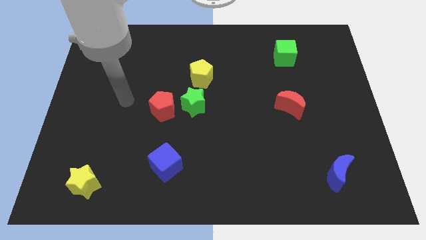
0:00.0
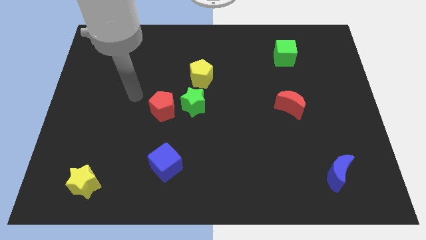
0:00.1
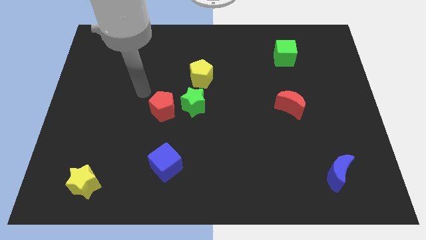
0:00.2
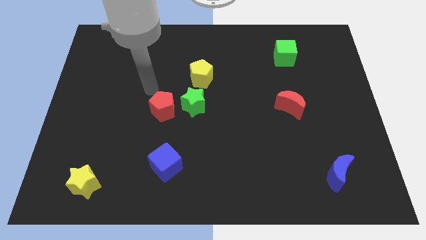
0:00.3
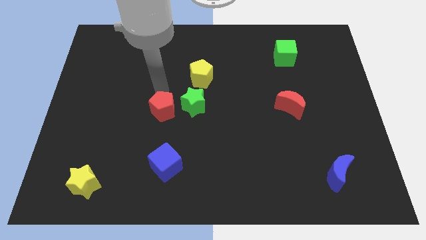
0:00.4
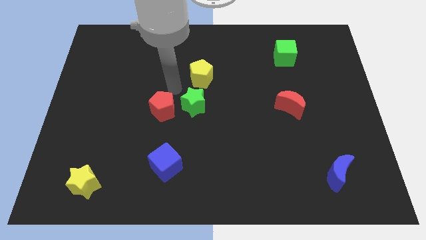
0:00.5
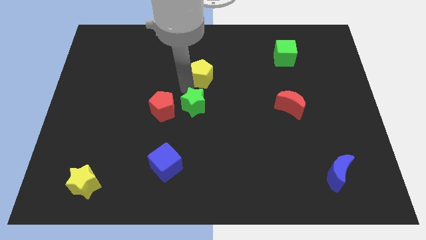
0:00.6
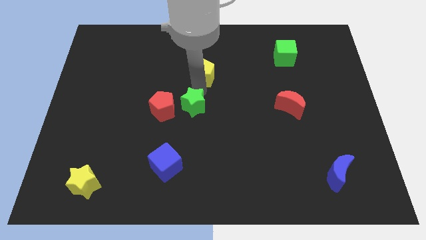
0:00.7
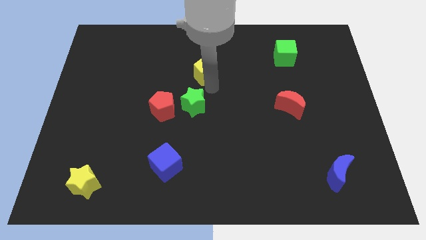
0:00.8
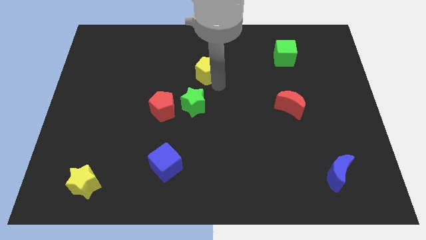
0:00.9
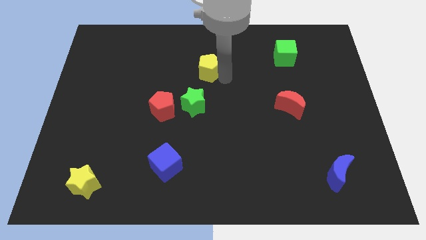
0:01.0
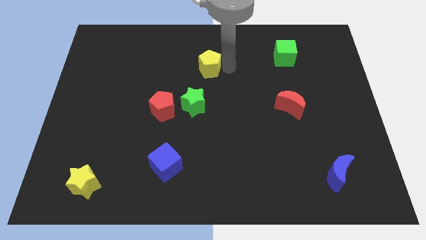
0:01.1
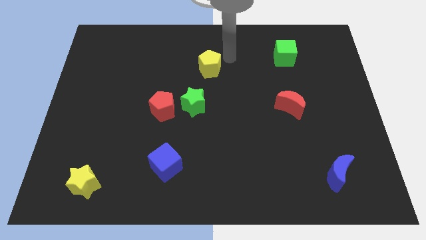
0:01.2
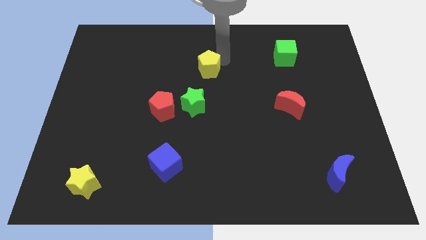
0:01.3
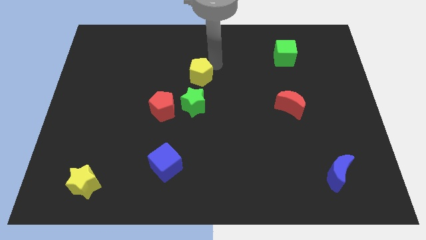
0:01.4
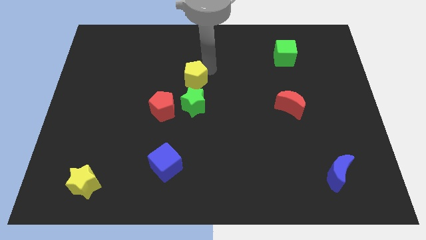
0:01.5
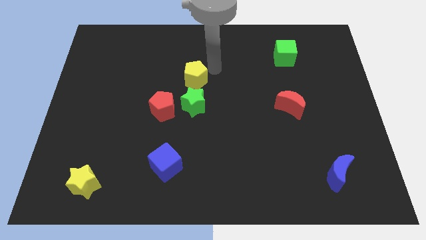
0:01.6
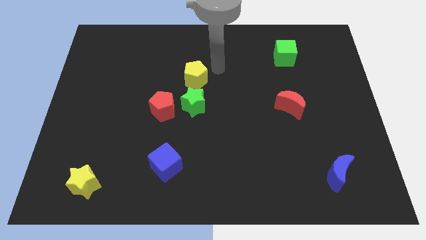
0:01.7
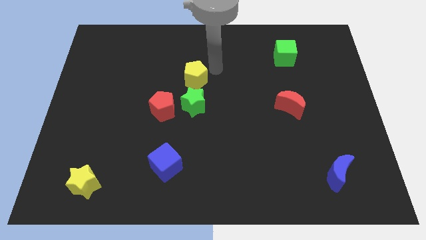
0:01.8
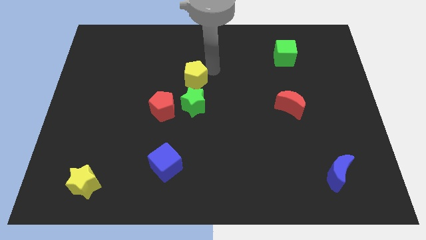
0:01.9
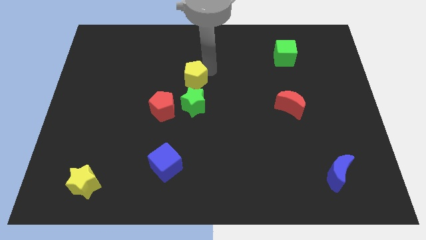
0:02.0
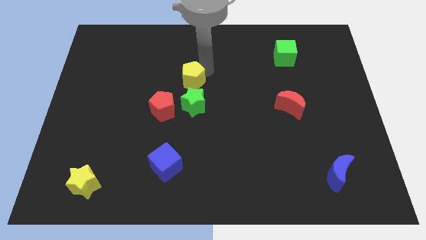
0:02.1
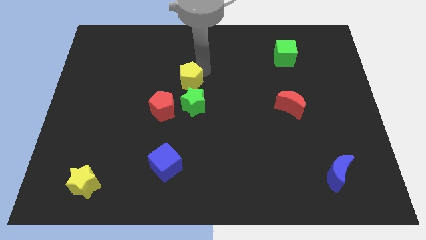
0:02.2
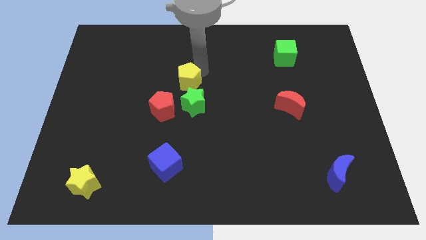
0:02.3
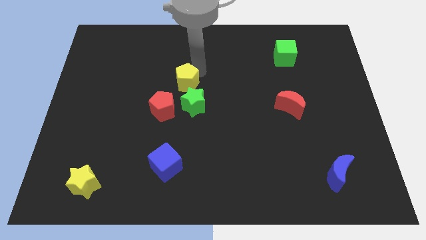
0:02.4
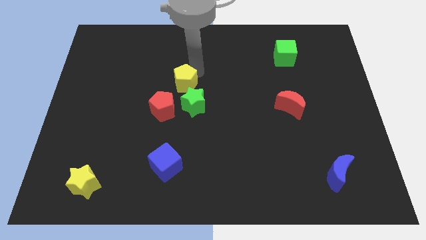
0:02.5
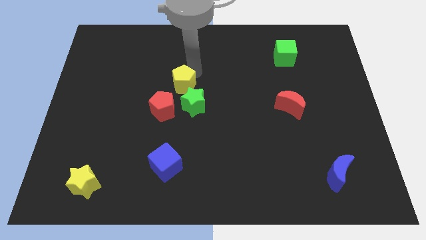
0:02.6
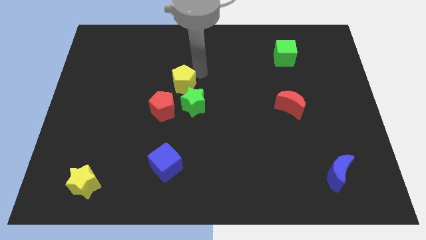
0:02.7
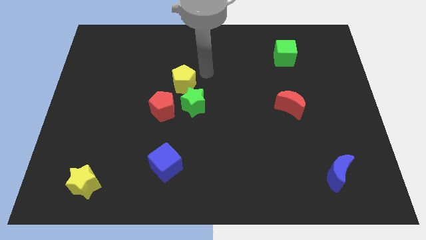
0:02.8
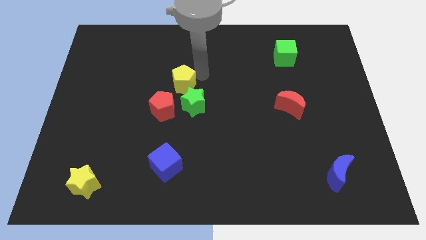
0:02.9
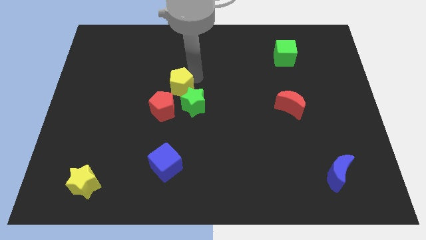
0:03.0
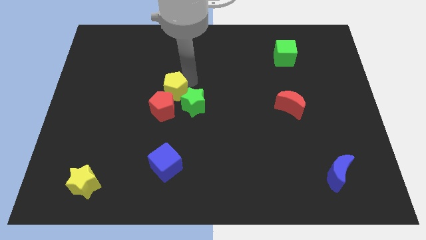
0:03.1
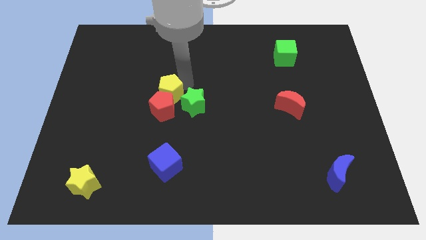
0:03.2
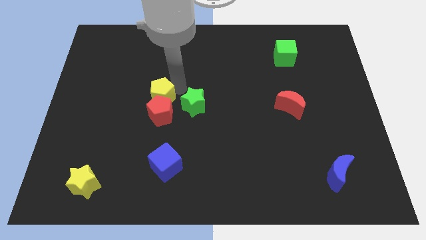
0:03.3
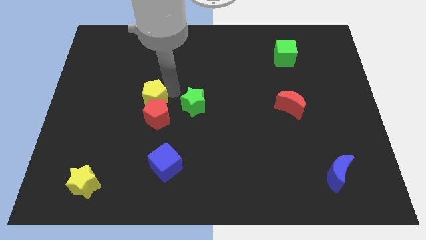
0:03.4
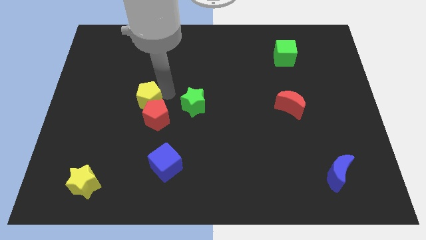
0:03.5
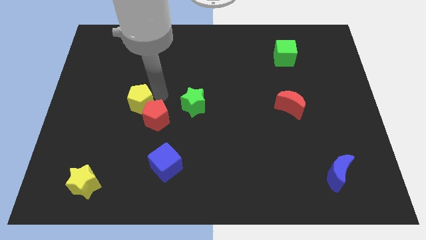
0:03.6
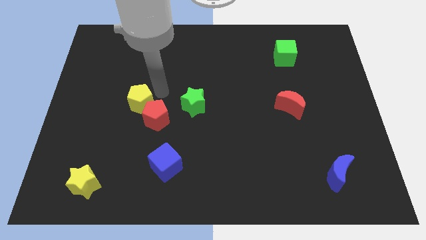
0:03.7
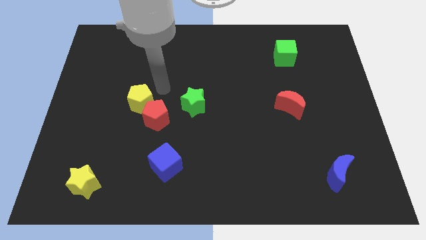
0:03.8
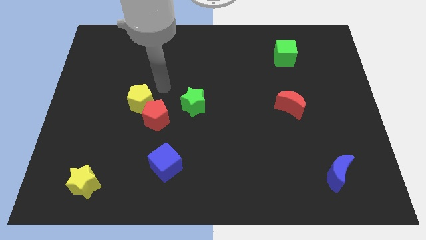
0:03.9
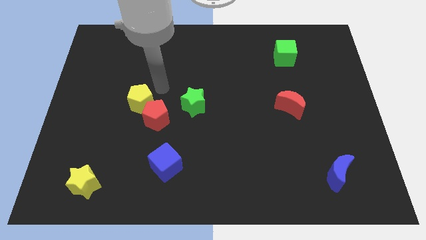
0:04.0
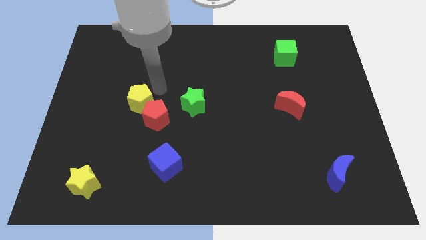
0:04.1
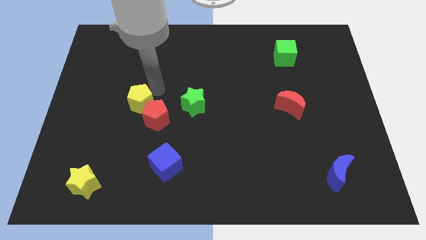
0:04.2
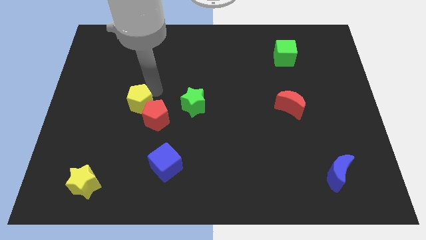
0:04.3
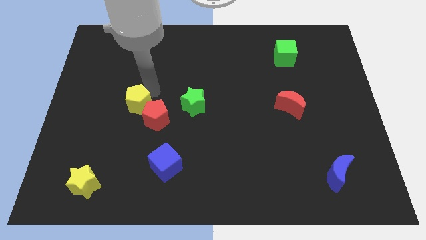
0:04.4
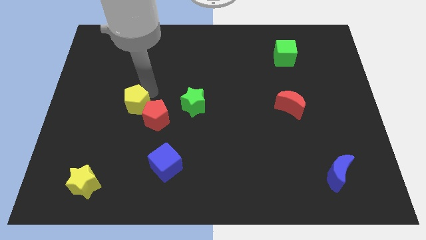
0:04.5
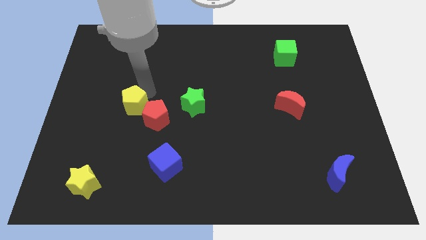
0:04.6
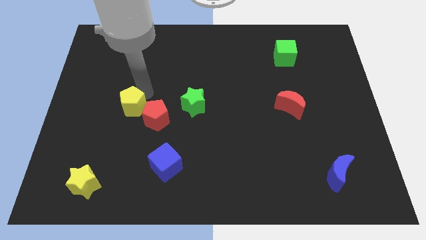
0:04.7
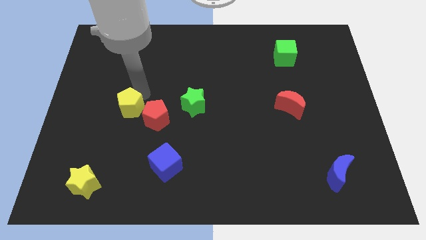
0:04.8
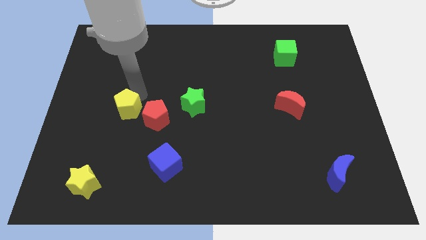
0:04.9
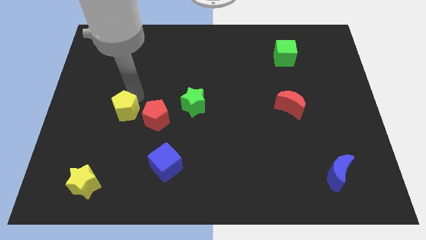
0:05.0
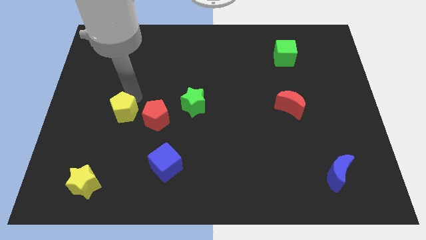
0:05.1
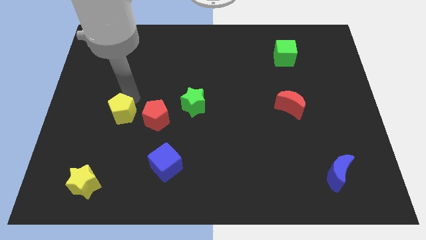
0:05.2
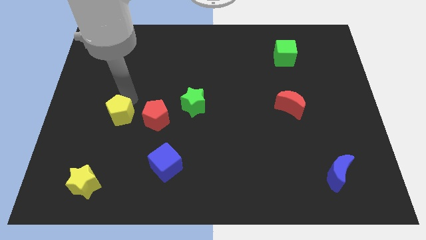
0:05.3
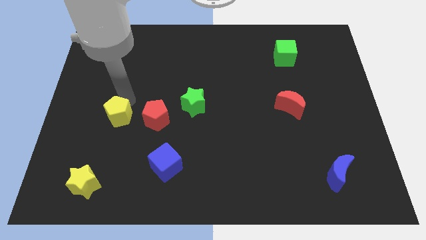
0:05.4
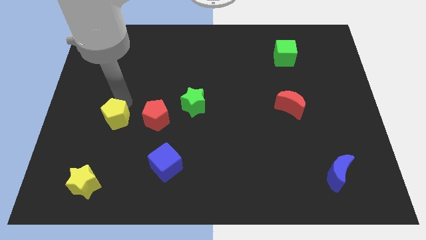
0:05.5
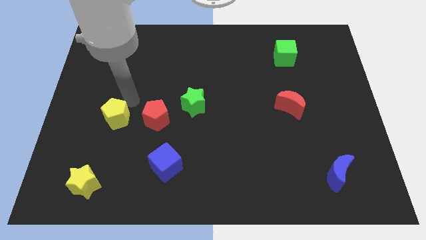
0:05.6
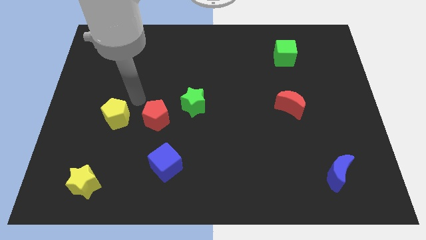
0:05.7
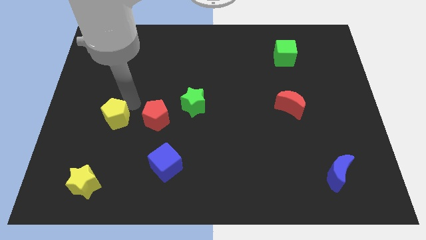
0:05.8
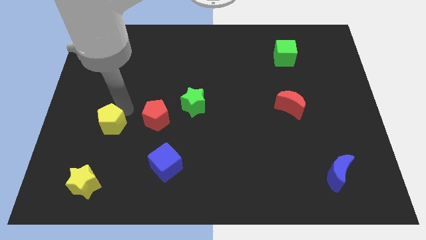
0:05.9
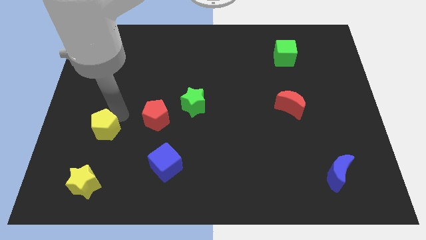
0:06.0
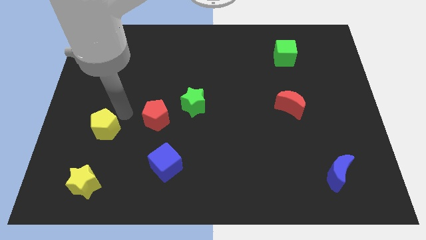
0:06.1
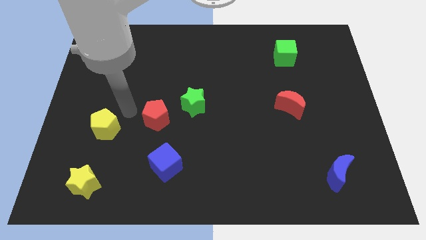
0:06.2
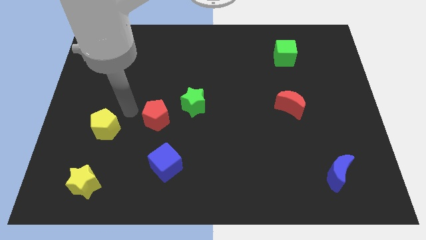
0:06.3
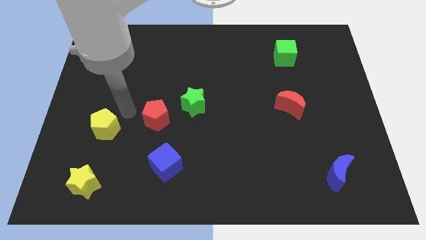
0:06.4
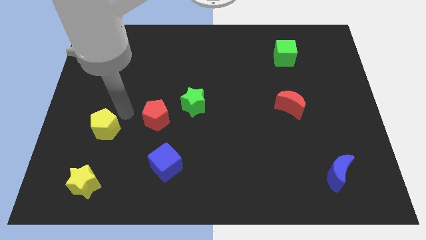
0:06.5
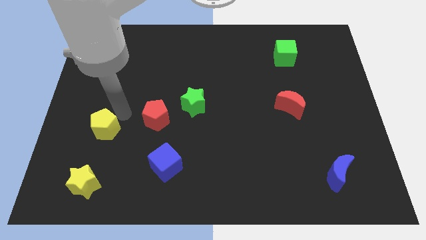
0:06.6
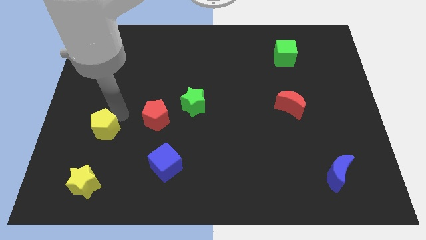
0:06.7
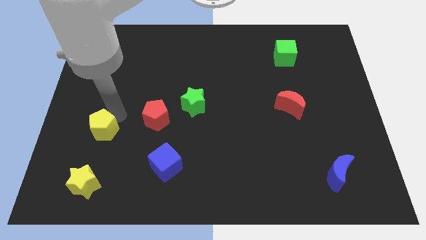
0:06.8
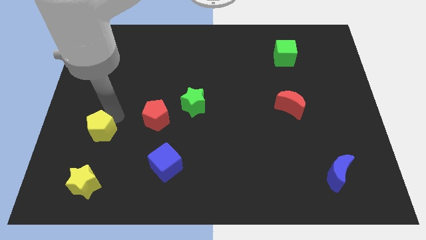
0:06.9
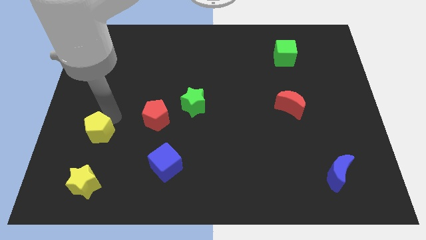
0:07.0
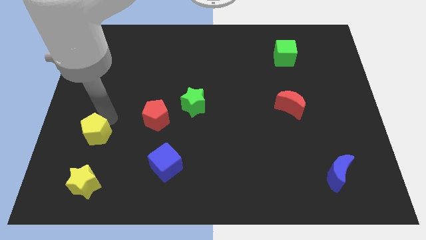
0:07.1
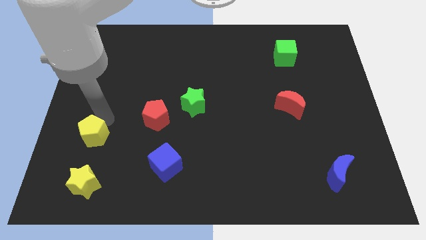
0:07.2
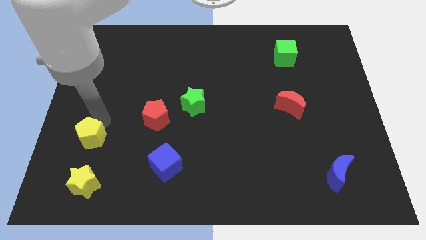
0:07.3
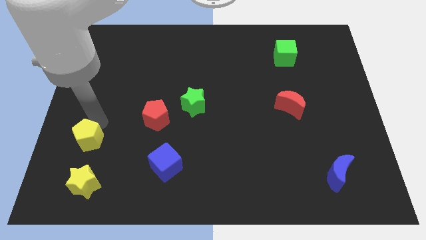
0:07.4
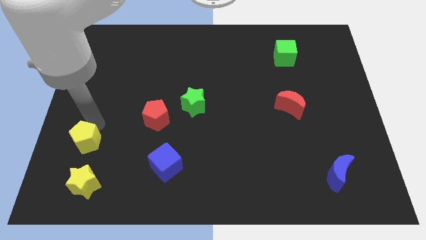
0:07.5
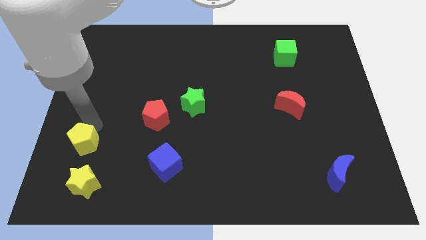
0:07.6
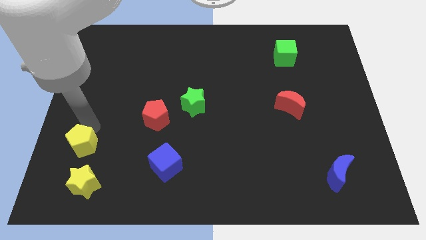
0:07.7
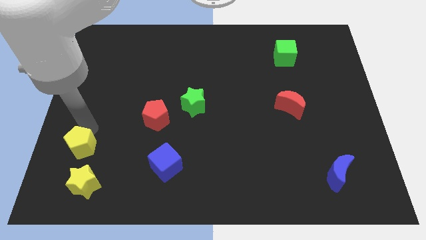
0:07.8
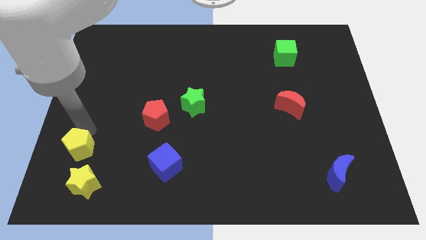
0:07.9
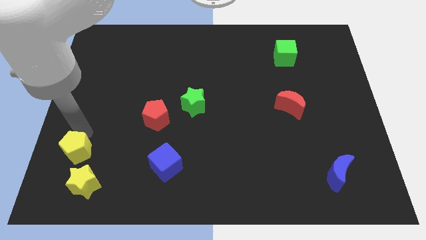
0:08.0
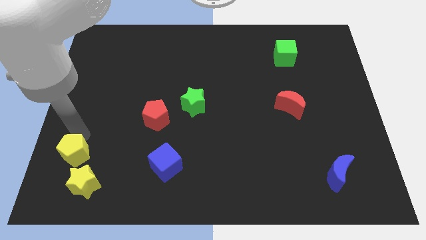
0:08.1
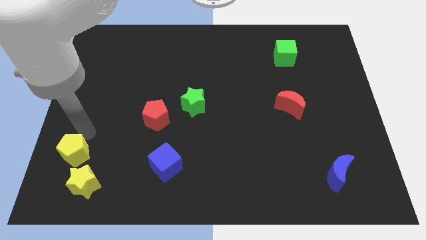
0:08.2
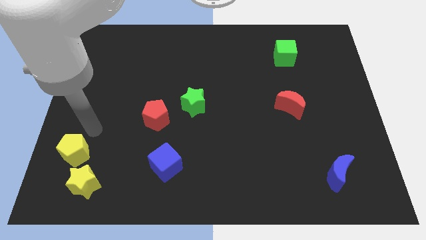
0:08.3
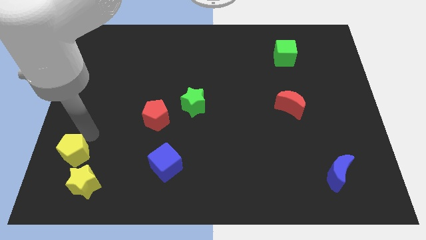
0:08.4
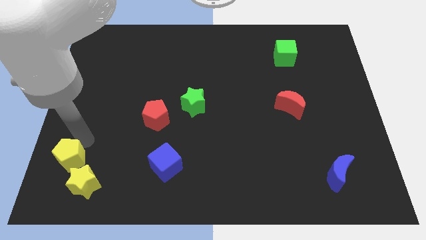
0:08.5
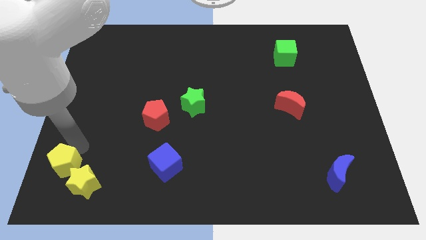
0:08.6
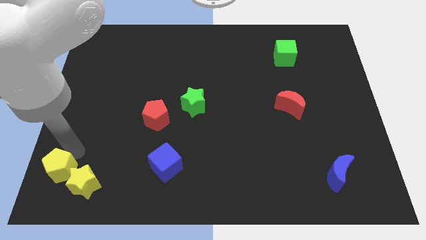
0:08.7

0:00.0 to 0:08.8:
push the yellow pentagon to the bottom left corner
